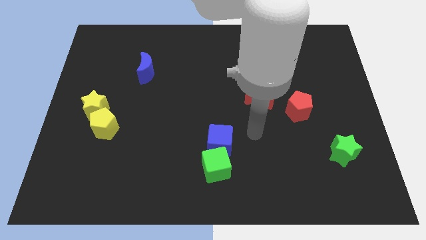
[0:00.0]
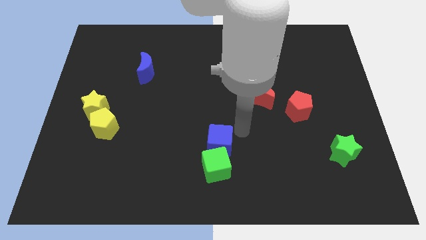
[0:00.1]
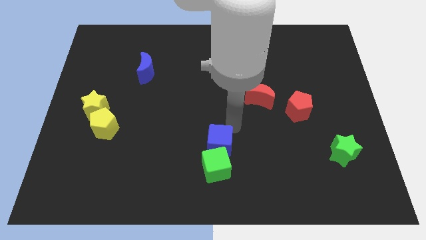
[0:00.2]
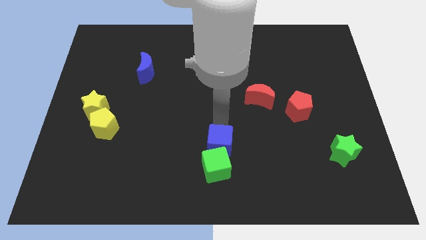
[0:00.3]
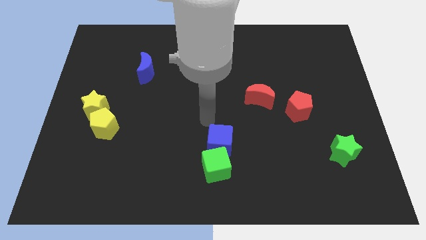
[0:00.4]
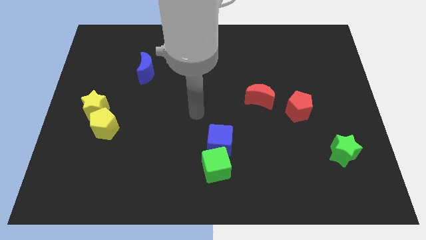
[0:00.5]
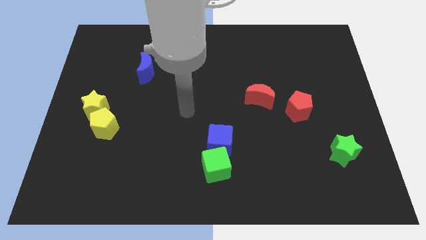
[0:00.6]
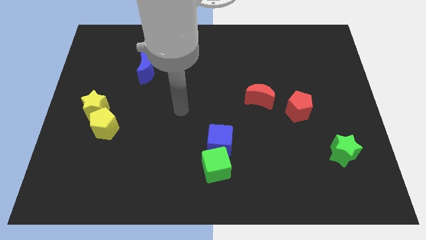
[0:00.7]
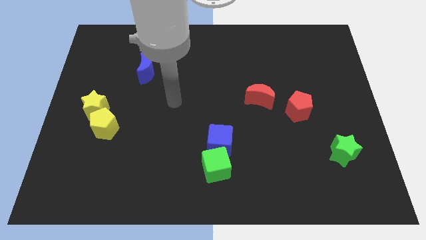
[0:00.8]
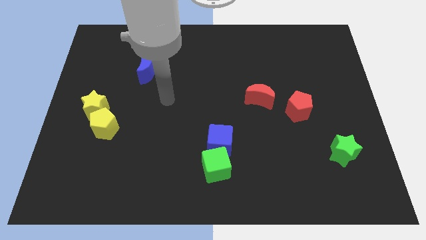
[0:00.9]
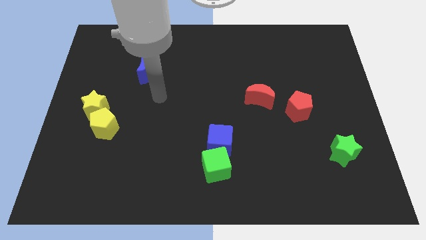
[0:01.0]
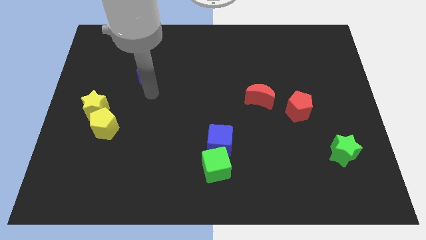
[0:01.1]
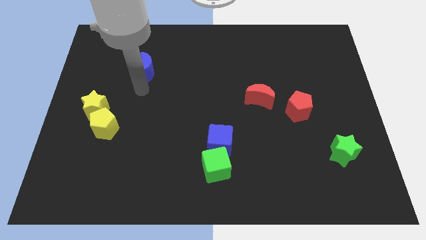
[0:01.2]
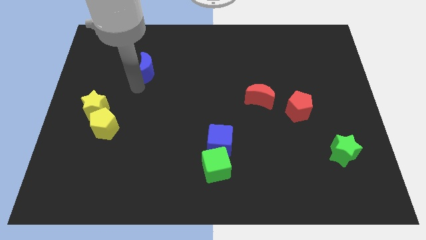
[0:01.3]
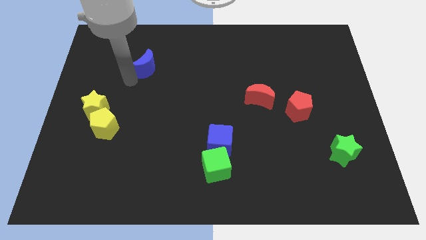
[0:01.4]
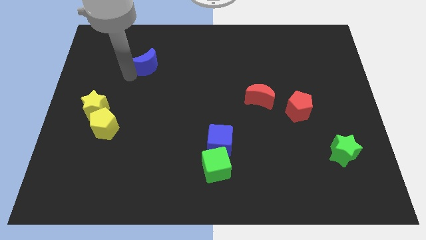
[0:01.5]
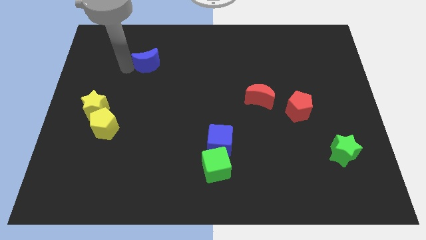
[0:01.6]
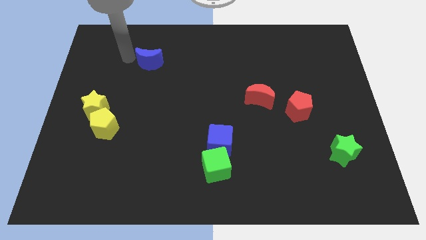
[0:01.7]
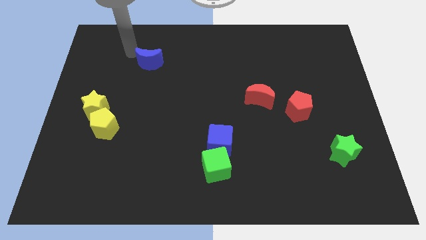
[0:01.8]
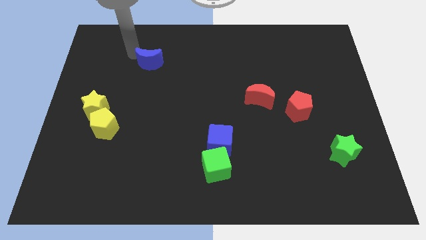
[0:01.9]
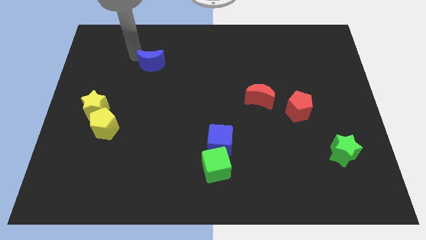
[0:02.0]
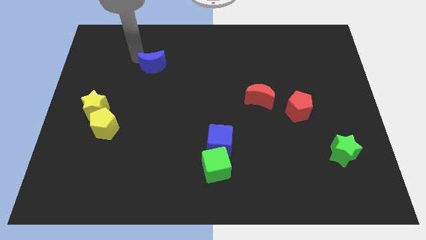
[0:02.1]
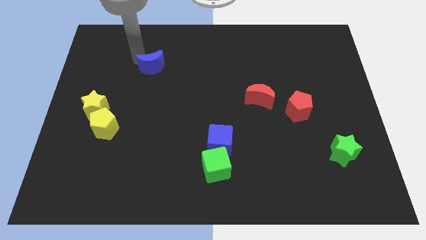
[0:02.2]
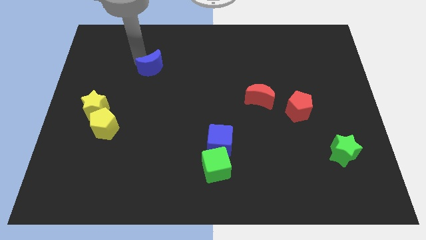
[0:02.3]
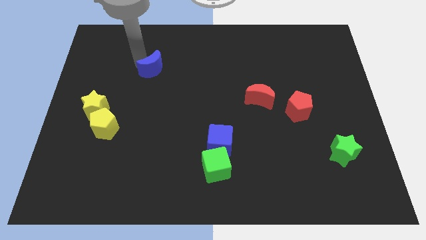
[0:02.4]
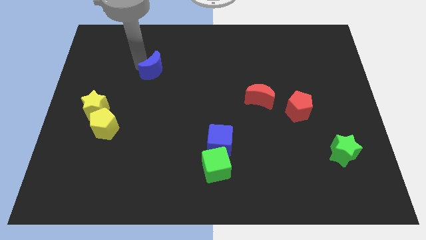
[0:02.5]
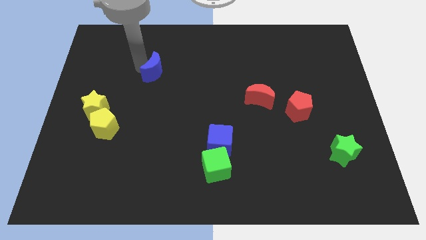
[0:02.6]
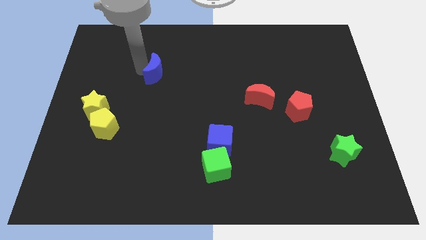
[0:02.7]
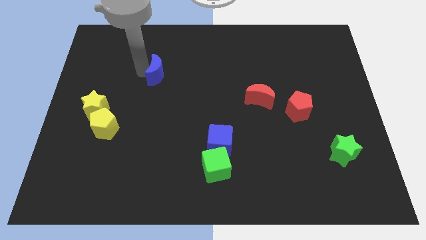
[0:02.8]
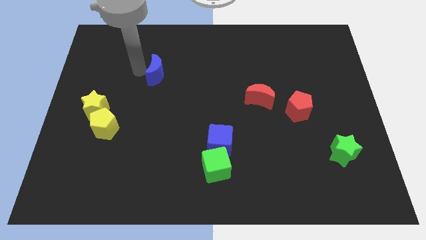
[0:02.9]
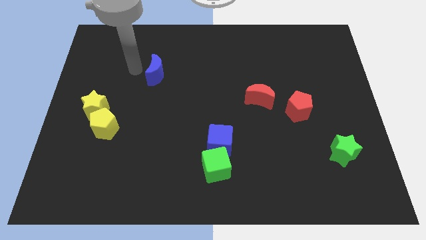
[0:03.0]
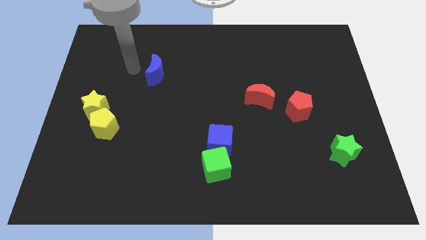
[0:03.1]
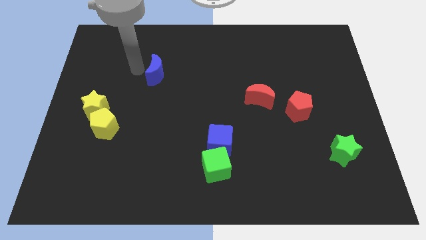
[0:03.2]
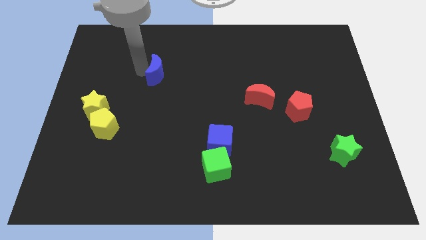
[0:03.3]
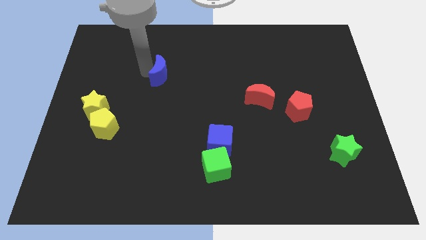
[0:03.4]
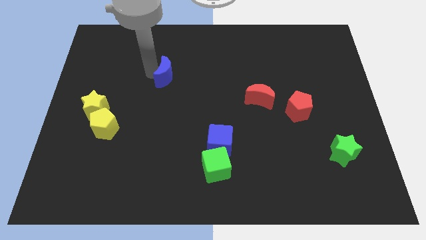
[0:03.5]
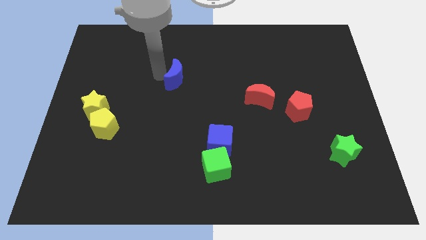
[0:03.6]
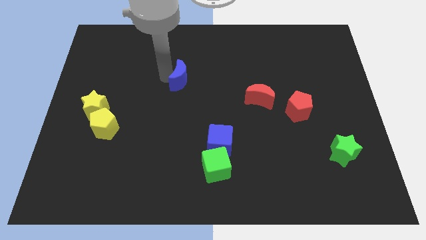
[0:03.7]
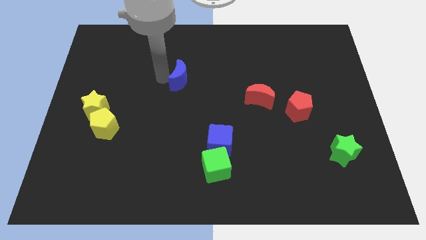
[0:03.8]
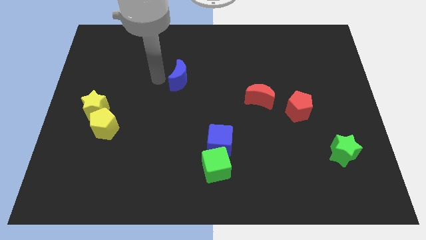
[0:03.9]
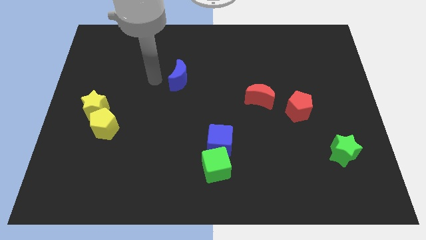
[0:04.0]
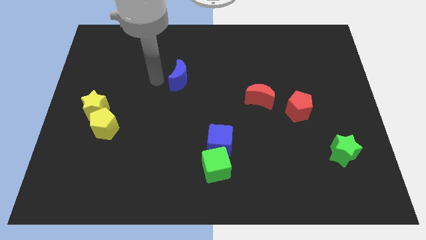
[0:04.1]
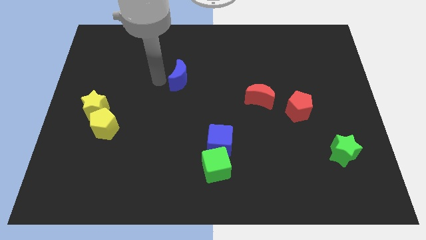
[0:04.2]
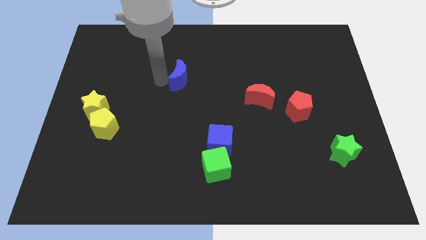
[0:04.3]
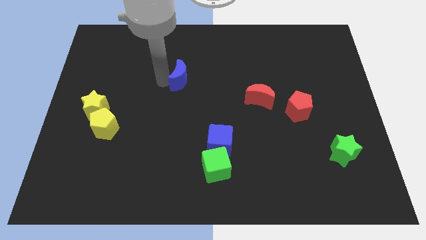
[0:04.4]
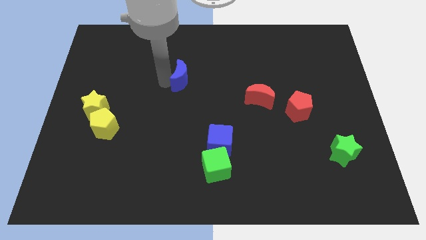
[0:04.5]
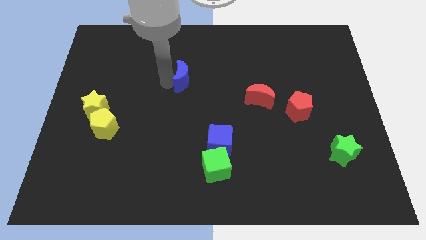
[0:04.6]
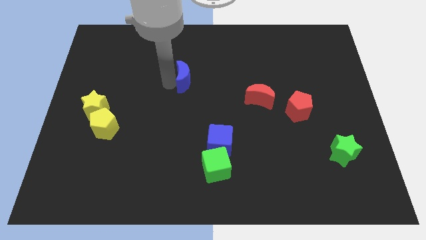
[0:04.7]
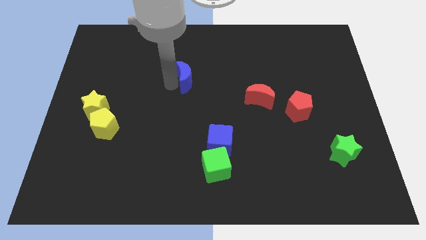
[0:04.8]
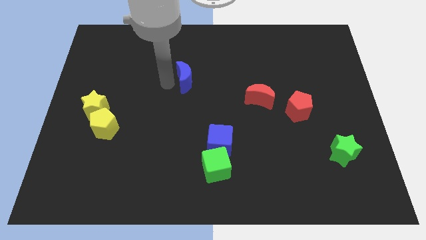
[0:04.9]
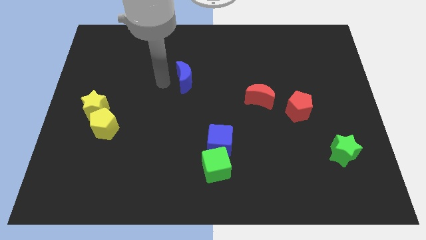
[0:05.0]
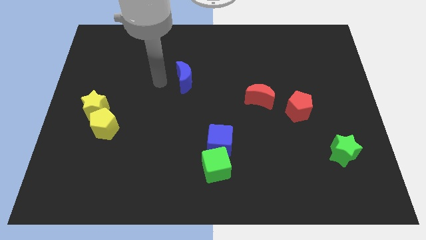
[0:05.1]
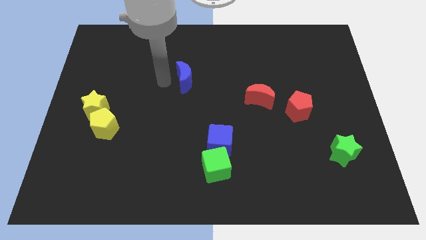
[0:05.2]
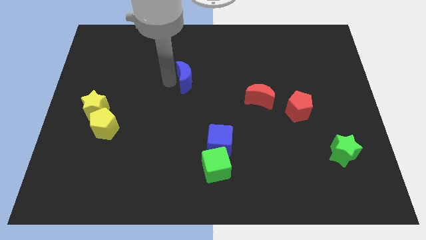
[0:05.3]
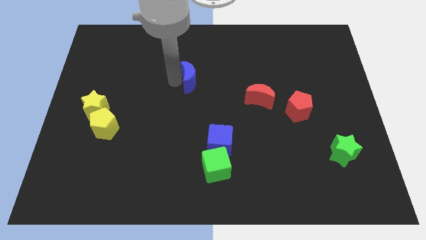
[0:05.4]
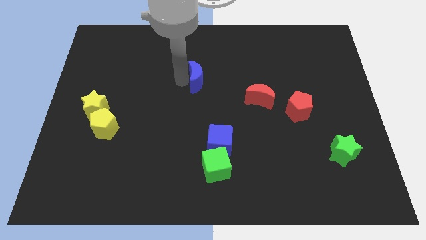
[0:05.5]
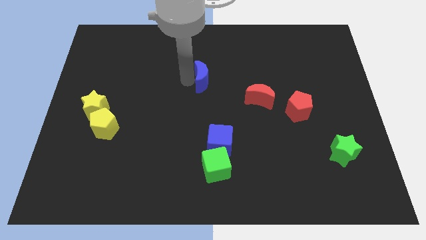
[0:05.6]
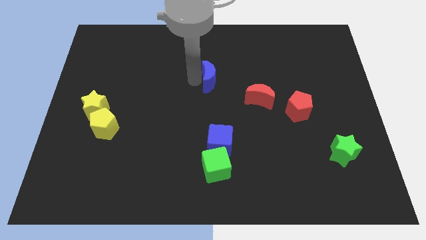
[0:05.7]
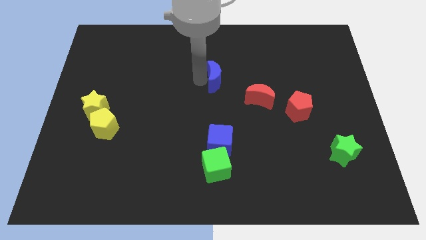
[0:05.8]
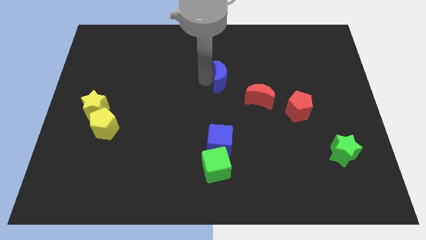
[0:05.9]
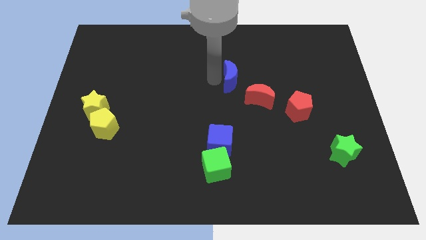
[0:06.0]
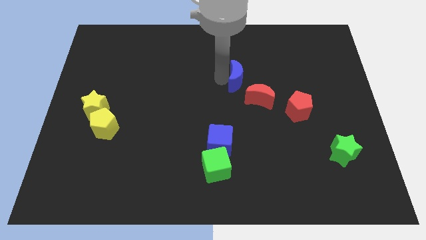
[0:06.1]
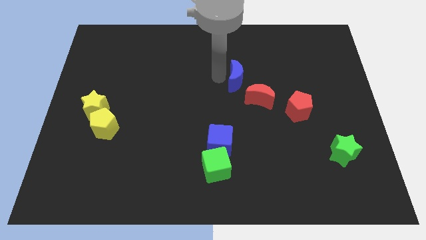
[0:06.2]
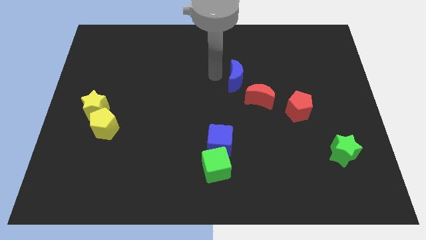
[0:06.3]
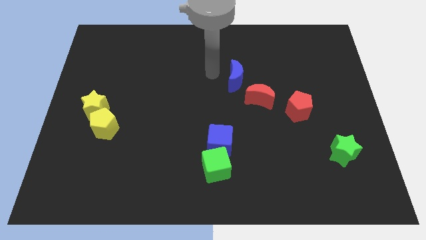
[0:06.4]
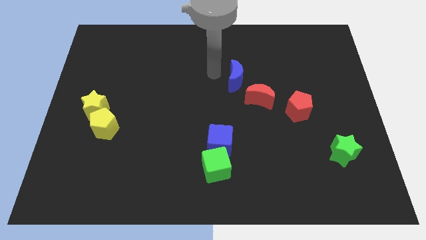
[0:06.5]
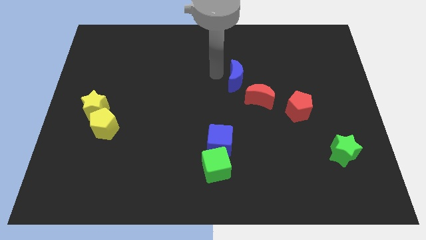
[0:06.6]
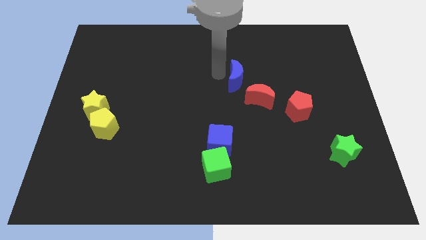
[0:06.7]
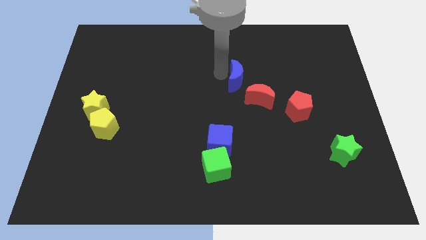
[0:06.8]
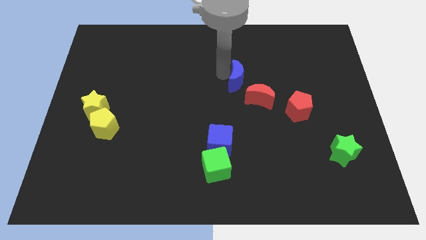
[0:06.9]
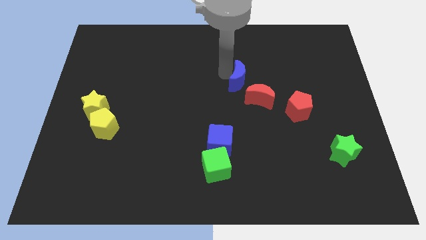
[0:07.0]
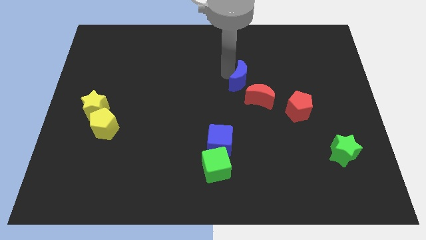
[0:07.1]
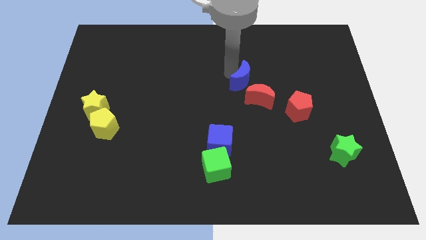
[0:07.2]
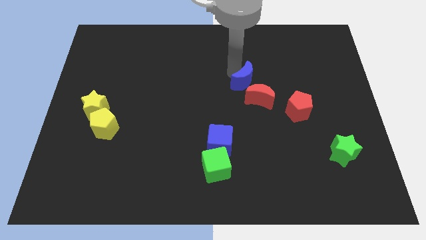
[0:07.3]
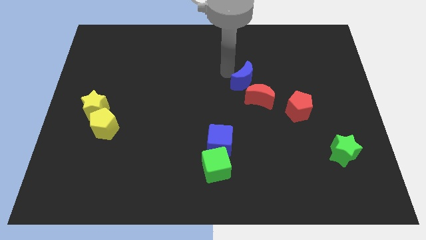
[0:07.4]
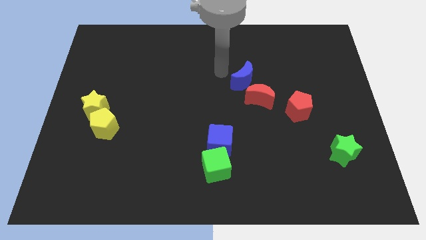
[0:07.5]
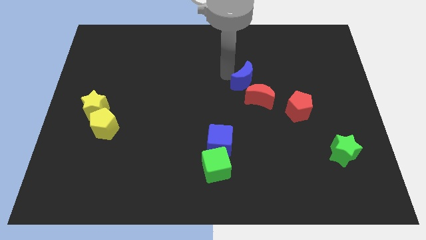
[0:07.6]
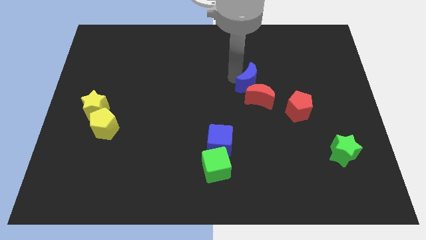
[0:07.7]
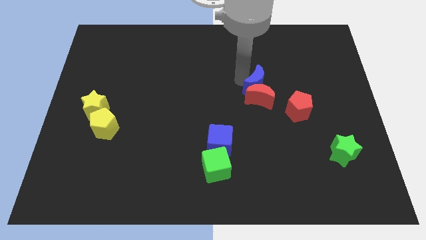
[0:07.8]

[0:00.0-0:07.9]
move the blue moon diagonally up and to the left of the red pentagon
